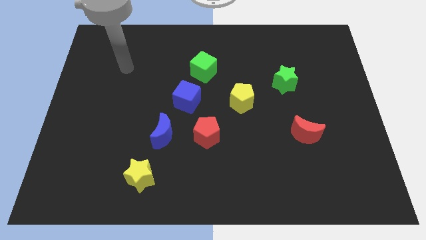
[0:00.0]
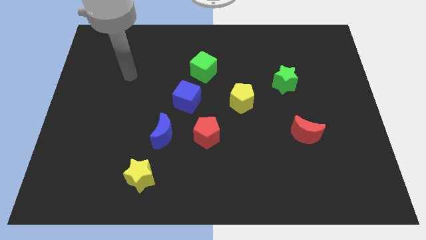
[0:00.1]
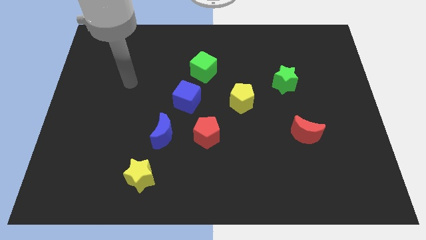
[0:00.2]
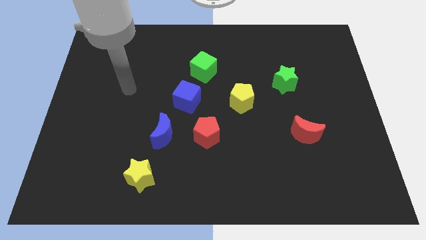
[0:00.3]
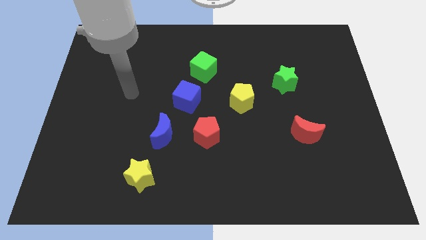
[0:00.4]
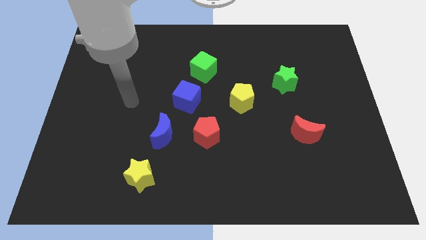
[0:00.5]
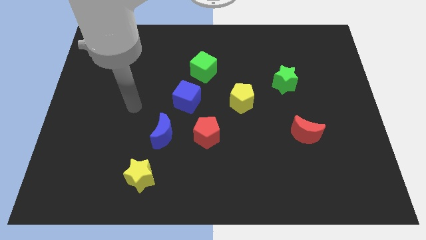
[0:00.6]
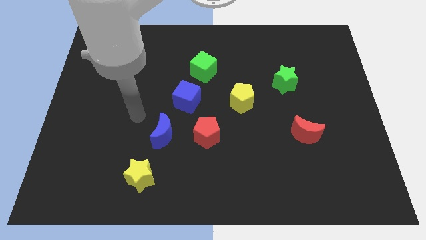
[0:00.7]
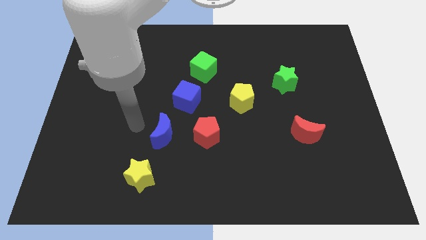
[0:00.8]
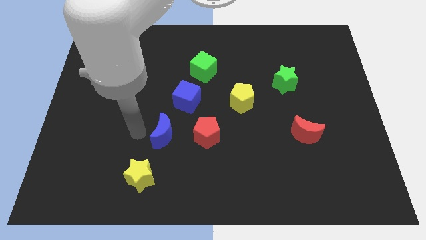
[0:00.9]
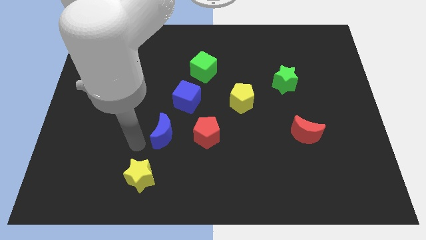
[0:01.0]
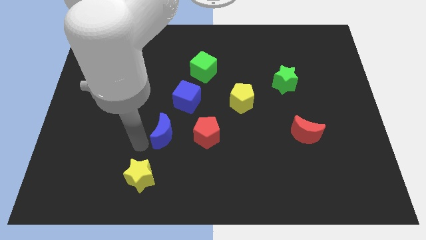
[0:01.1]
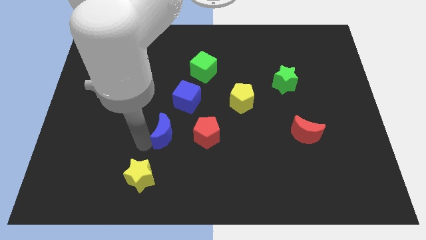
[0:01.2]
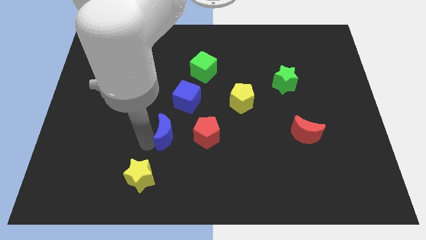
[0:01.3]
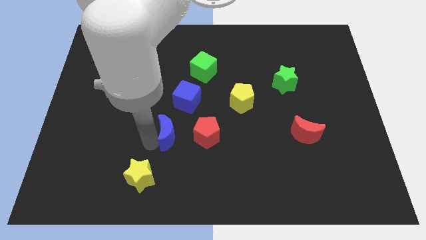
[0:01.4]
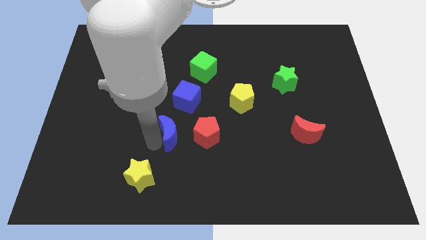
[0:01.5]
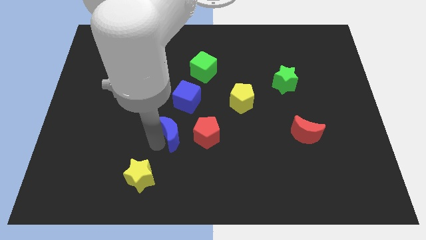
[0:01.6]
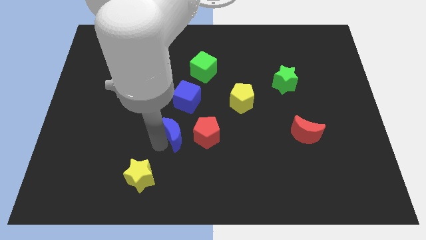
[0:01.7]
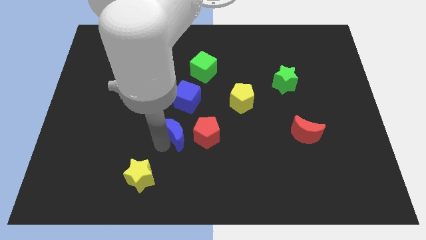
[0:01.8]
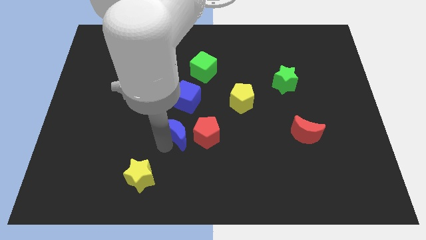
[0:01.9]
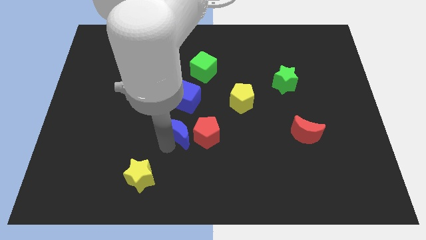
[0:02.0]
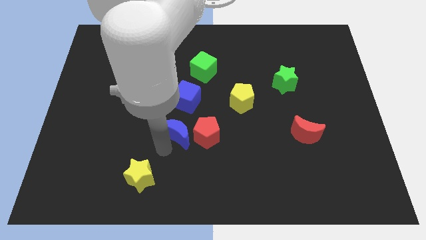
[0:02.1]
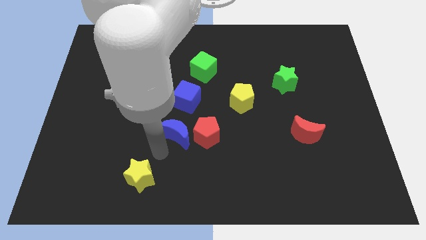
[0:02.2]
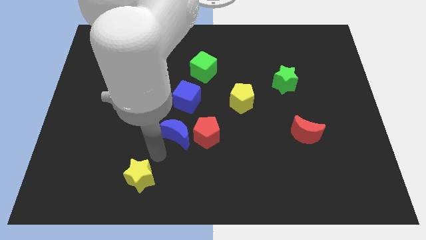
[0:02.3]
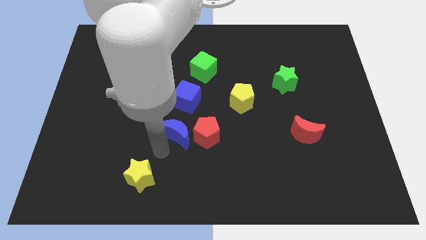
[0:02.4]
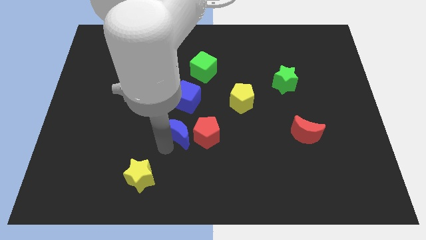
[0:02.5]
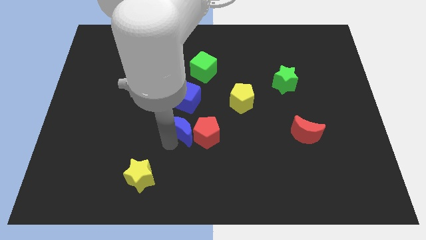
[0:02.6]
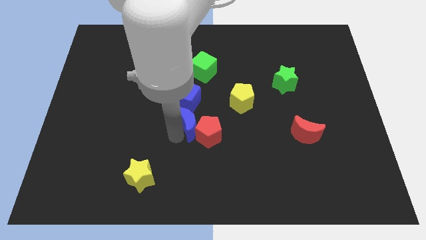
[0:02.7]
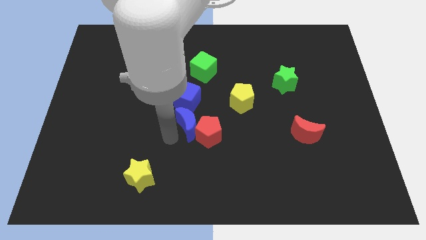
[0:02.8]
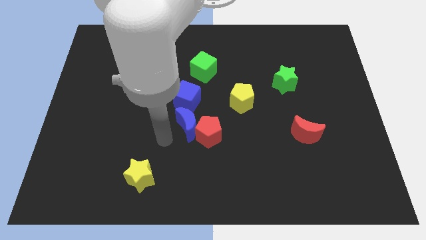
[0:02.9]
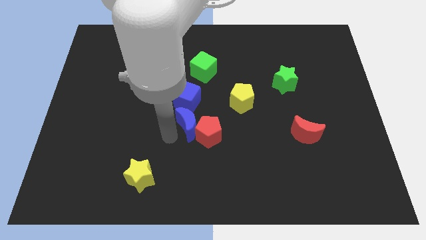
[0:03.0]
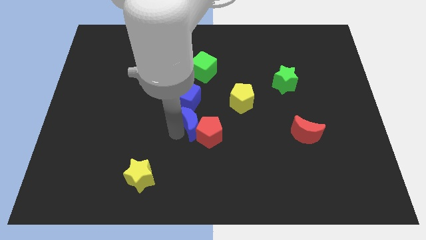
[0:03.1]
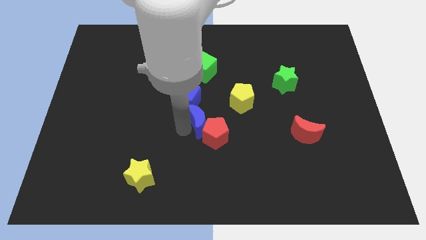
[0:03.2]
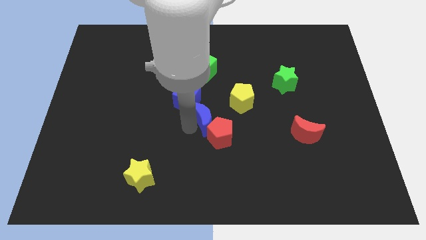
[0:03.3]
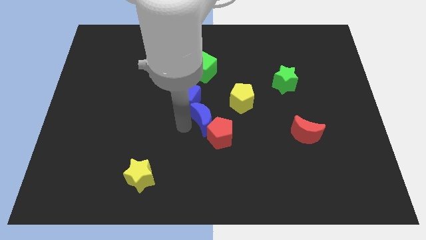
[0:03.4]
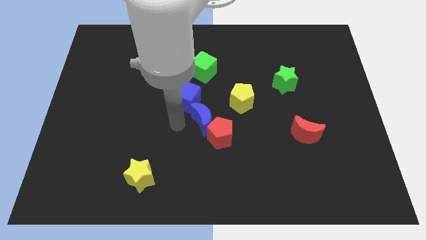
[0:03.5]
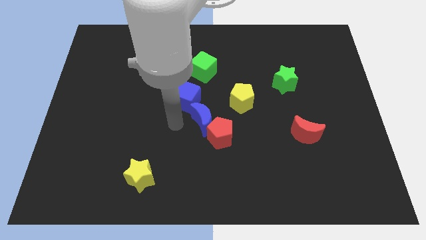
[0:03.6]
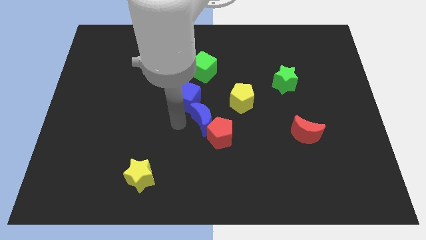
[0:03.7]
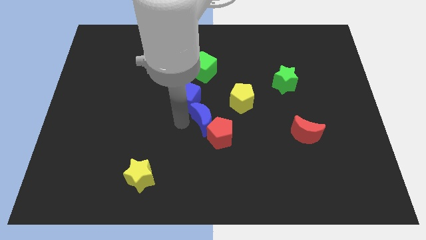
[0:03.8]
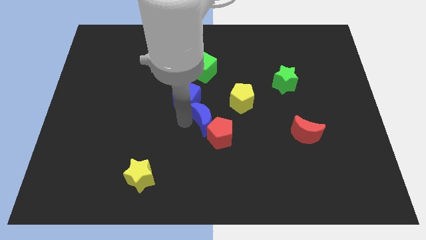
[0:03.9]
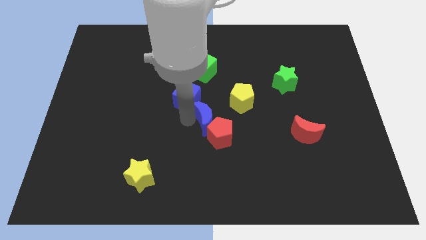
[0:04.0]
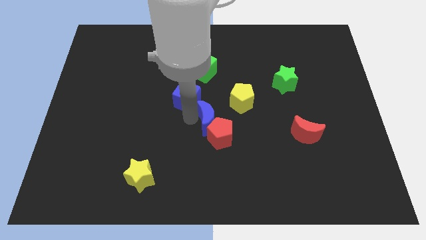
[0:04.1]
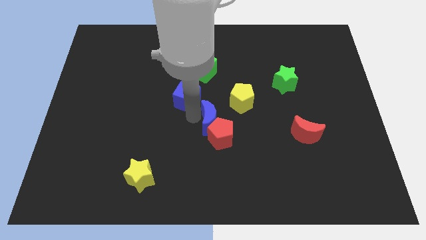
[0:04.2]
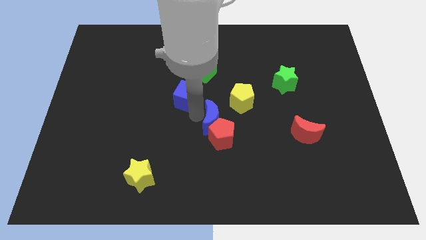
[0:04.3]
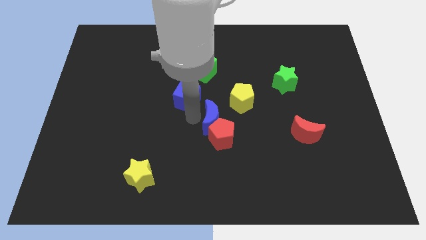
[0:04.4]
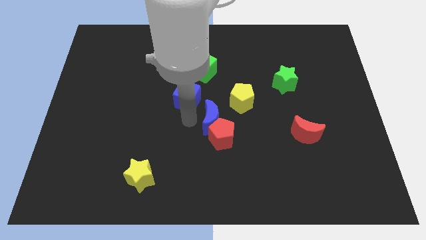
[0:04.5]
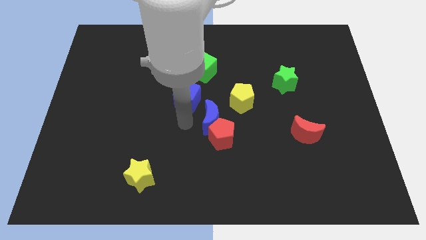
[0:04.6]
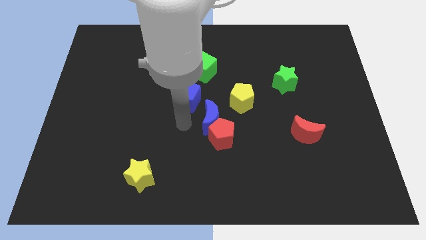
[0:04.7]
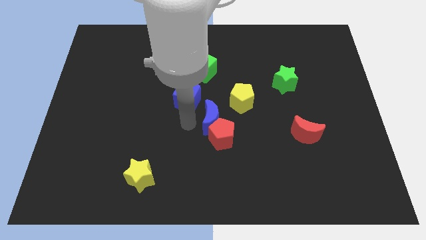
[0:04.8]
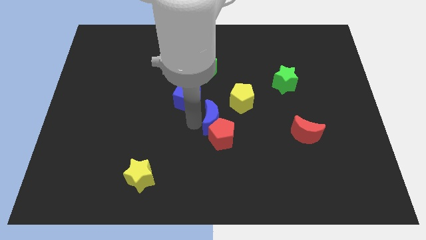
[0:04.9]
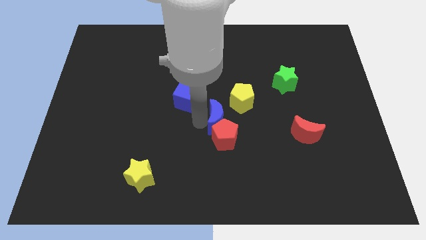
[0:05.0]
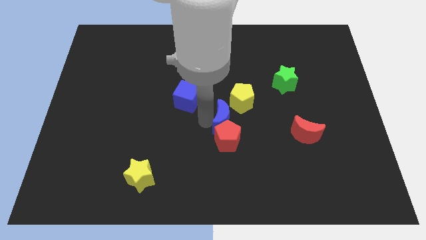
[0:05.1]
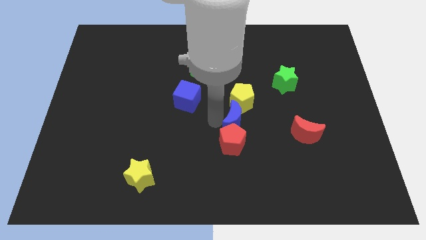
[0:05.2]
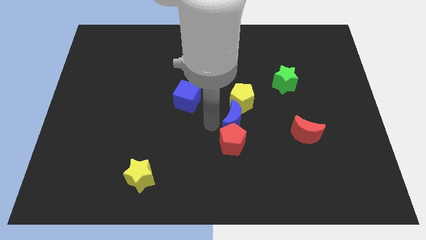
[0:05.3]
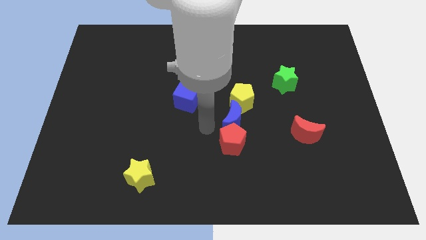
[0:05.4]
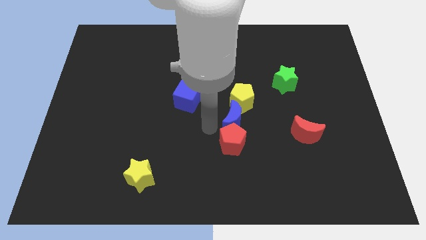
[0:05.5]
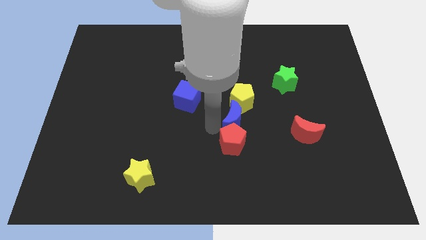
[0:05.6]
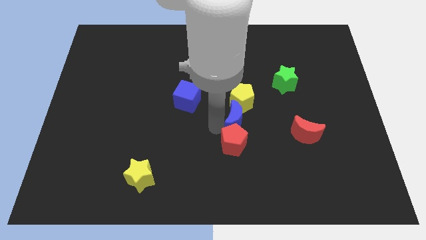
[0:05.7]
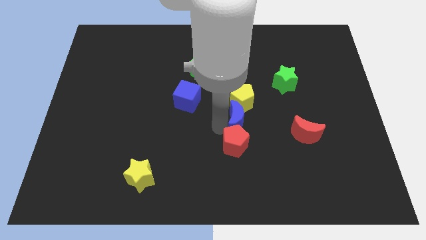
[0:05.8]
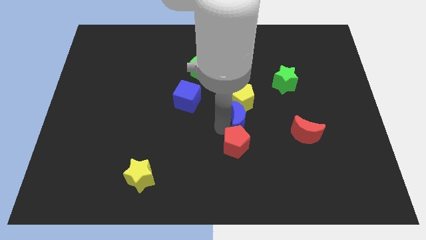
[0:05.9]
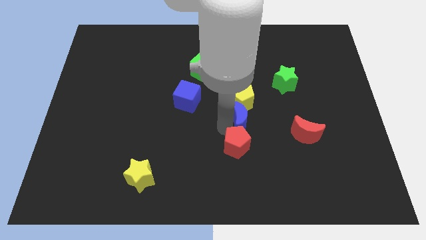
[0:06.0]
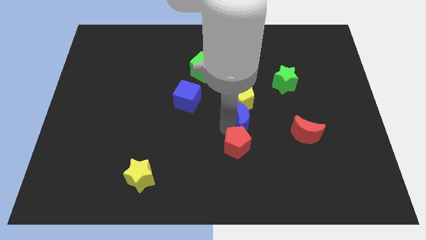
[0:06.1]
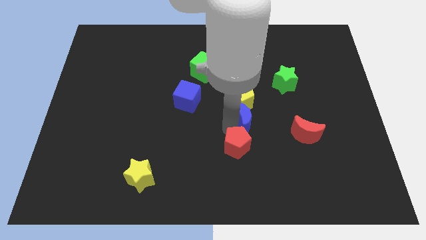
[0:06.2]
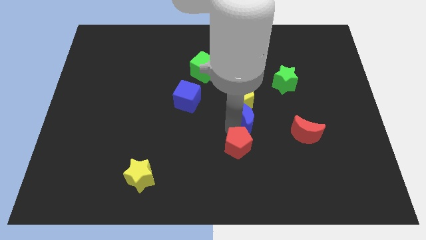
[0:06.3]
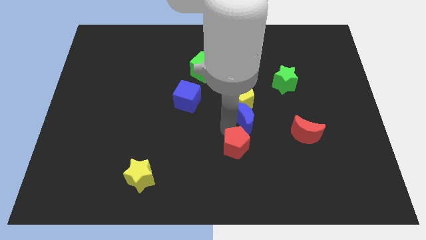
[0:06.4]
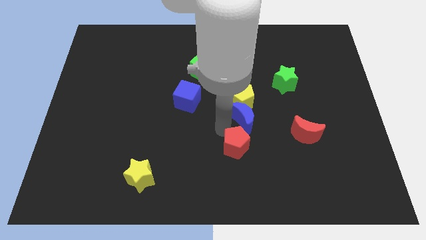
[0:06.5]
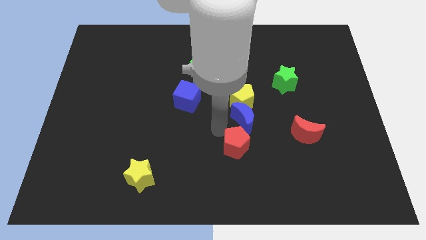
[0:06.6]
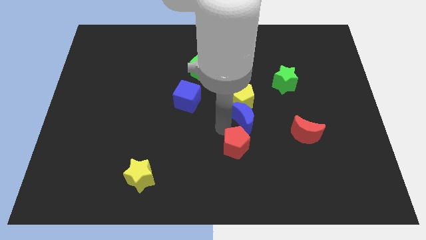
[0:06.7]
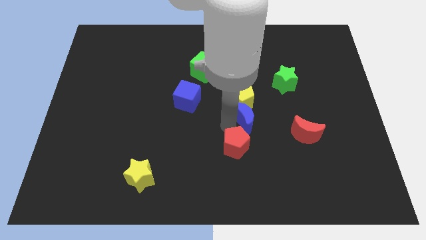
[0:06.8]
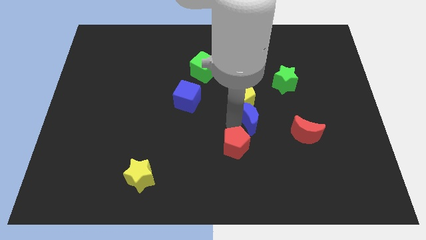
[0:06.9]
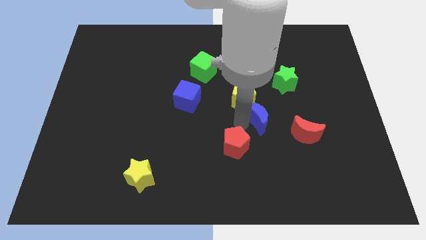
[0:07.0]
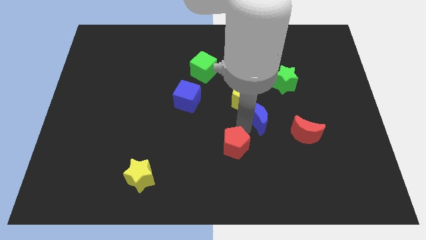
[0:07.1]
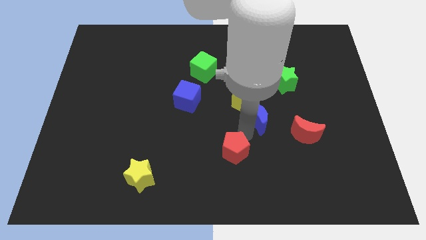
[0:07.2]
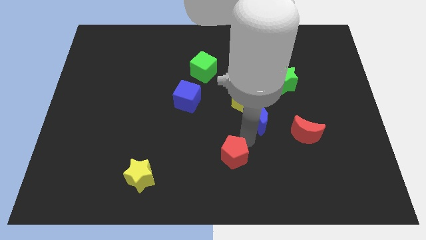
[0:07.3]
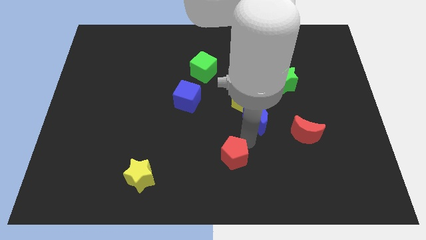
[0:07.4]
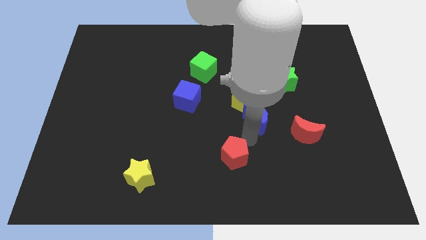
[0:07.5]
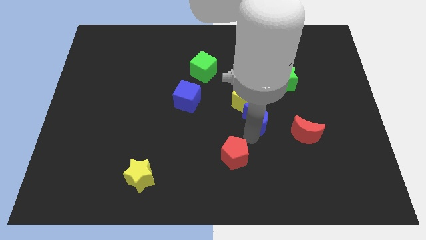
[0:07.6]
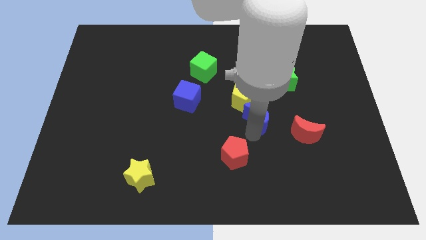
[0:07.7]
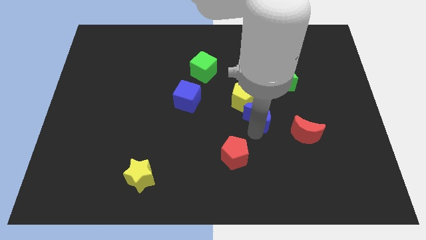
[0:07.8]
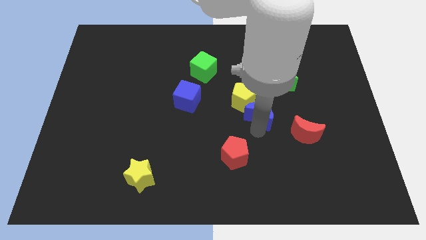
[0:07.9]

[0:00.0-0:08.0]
put the blue moon diagonally down and to the left of the green star
